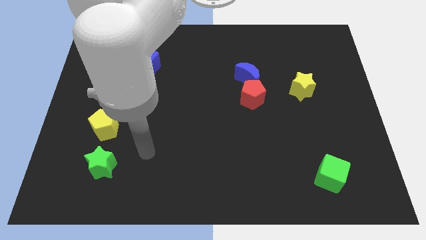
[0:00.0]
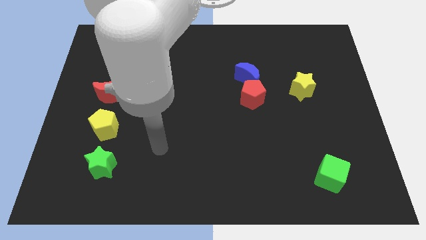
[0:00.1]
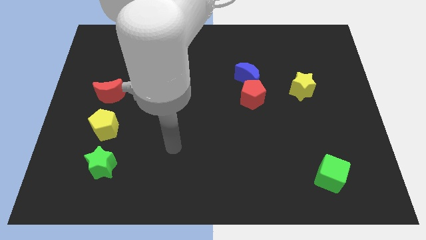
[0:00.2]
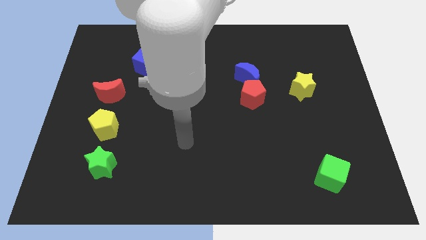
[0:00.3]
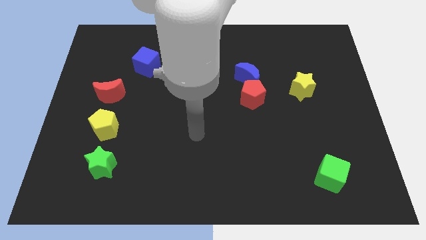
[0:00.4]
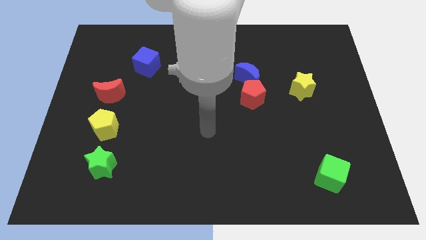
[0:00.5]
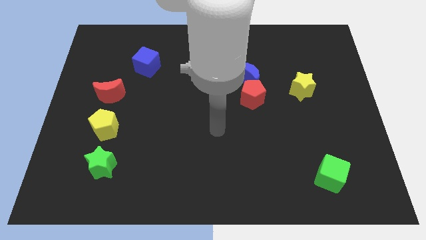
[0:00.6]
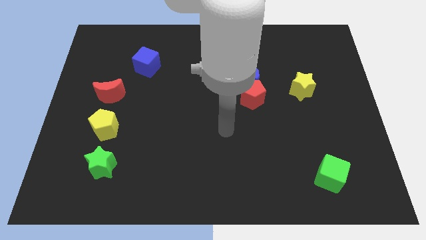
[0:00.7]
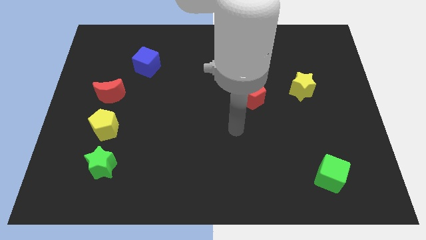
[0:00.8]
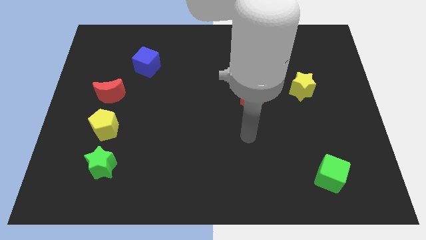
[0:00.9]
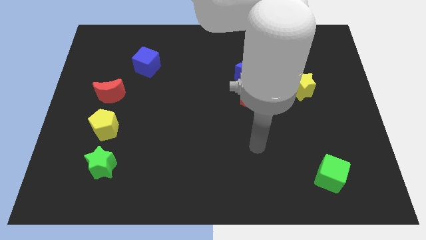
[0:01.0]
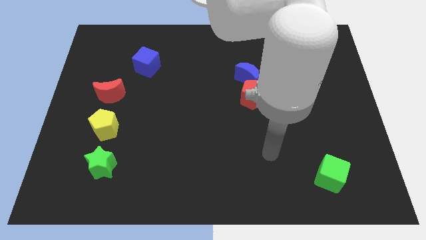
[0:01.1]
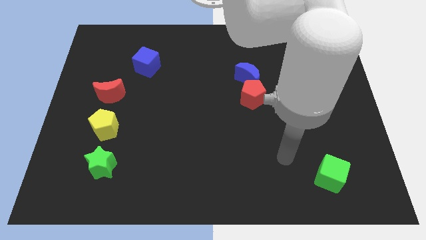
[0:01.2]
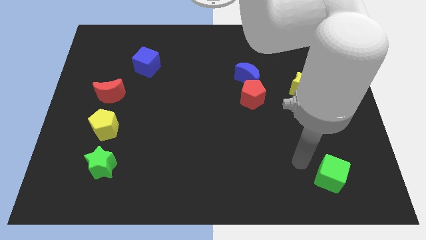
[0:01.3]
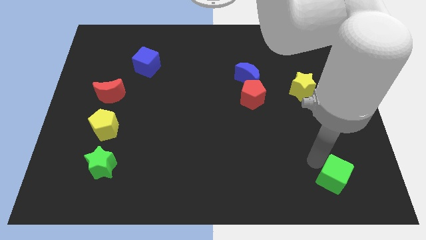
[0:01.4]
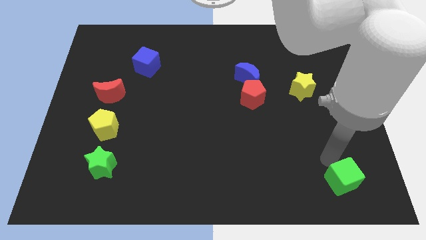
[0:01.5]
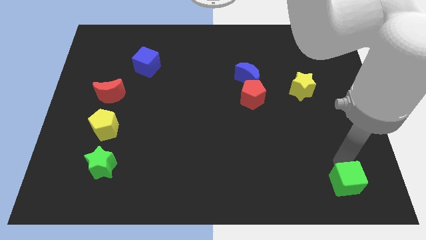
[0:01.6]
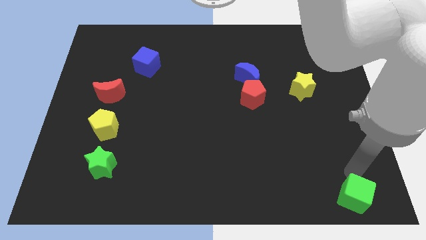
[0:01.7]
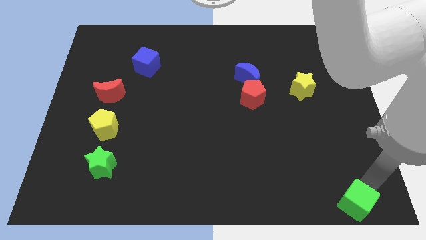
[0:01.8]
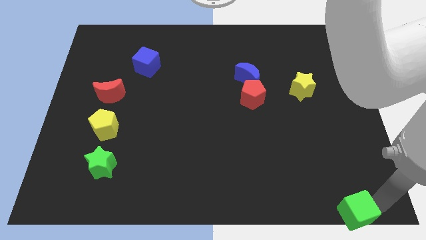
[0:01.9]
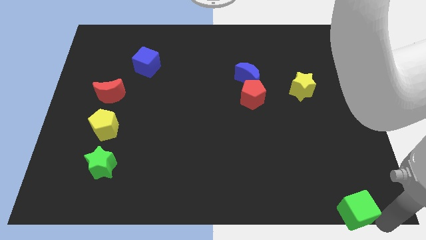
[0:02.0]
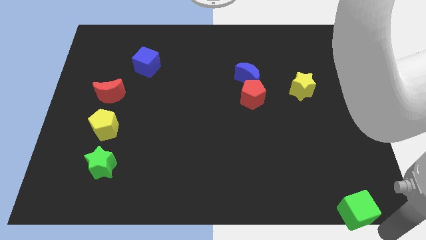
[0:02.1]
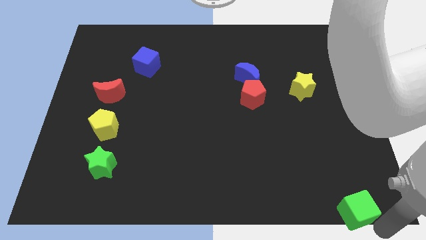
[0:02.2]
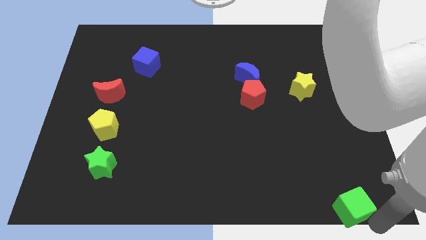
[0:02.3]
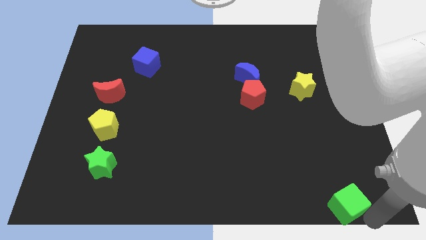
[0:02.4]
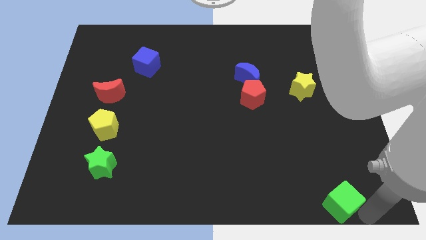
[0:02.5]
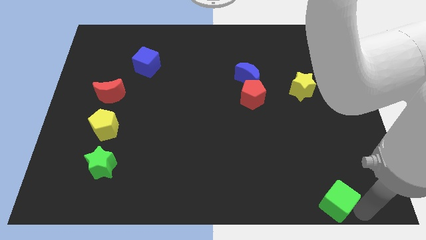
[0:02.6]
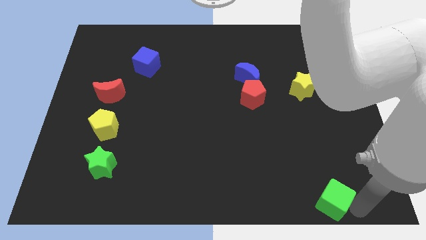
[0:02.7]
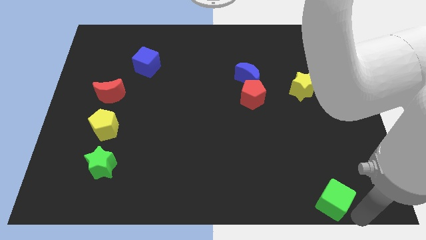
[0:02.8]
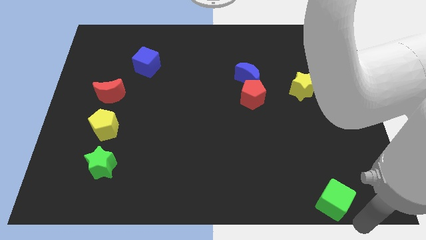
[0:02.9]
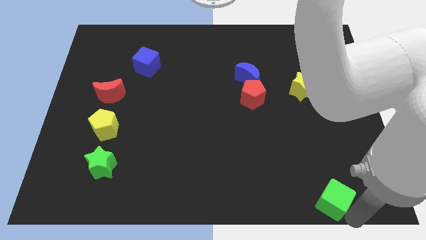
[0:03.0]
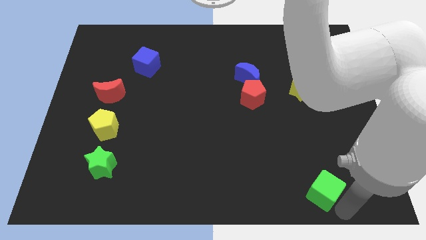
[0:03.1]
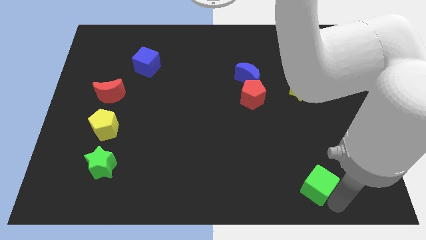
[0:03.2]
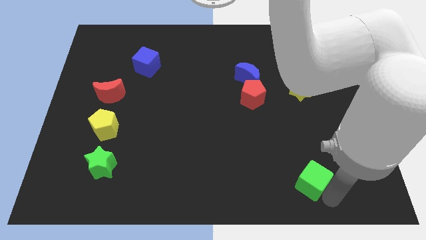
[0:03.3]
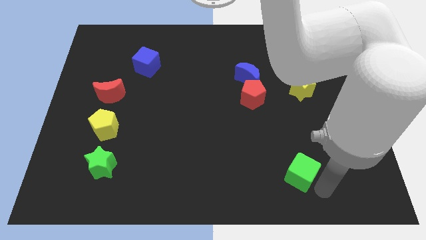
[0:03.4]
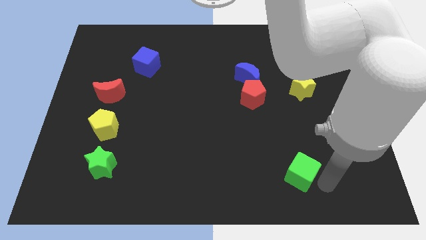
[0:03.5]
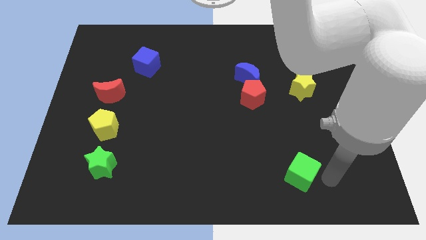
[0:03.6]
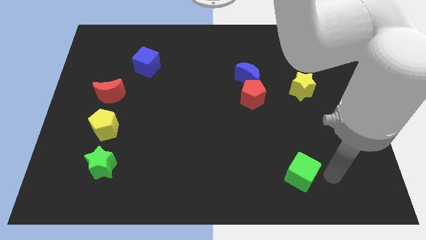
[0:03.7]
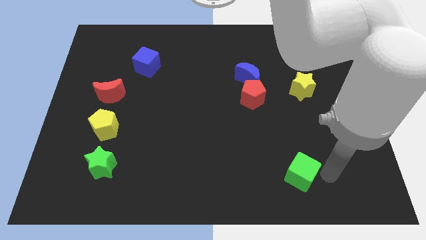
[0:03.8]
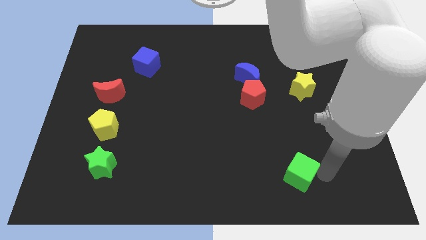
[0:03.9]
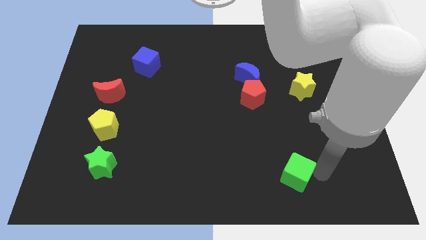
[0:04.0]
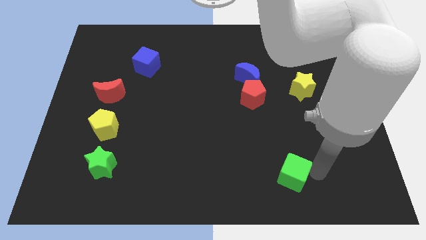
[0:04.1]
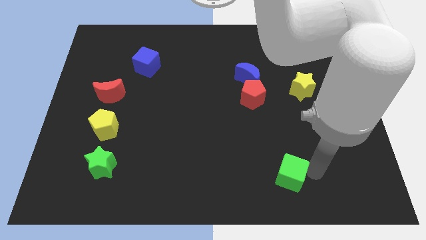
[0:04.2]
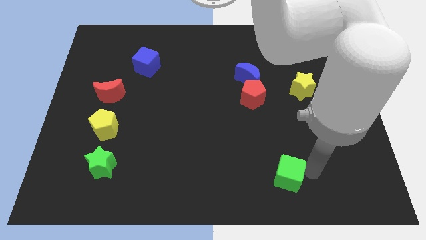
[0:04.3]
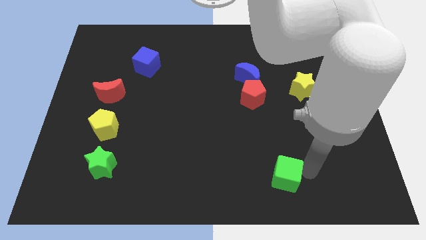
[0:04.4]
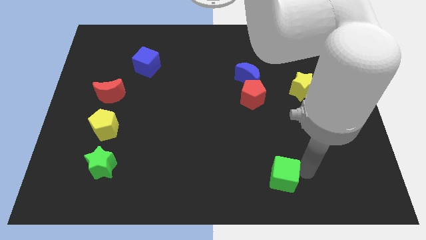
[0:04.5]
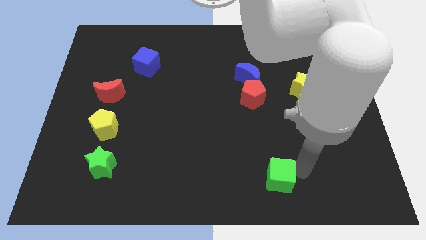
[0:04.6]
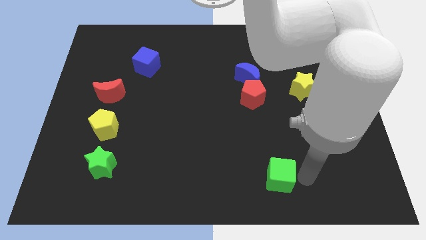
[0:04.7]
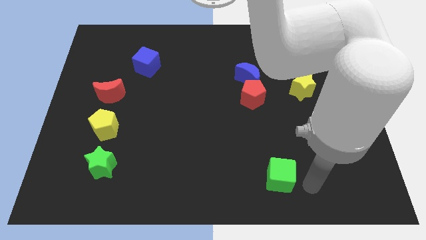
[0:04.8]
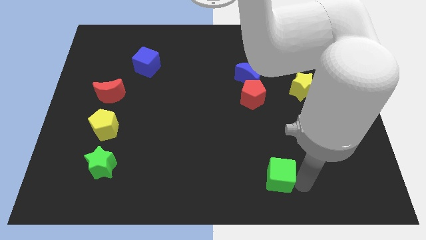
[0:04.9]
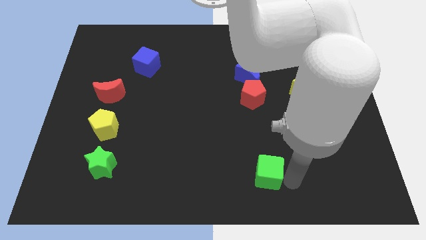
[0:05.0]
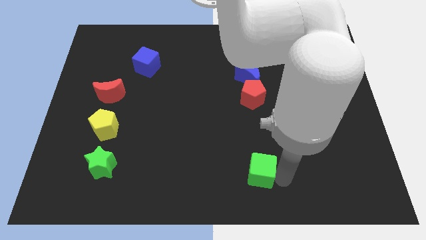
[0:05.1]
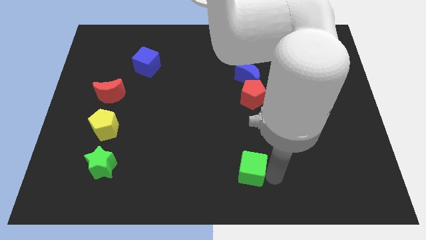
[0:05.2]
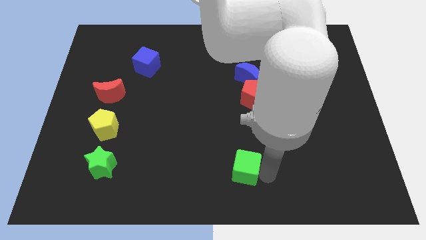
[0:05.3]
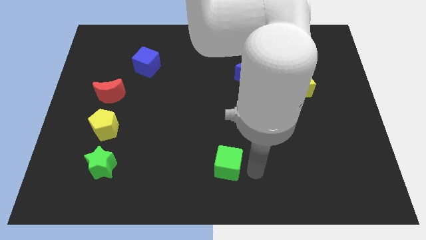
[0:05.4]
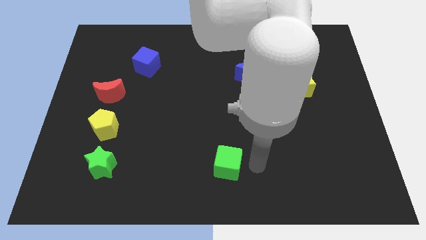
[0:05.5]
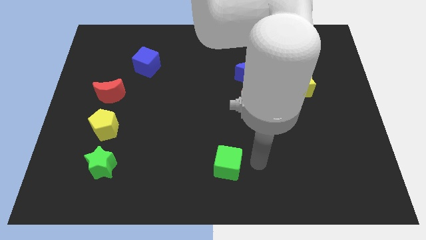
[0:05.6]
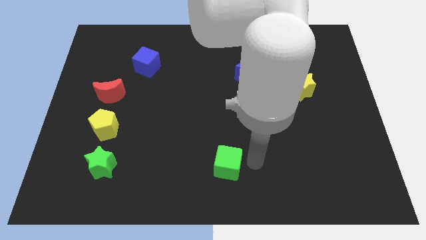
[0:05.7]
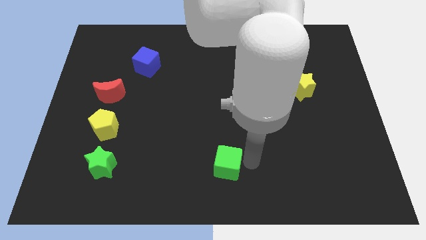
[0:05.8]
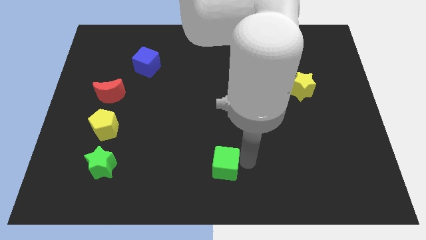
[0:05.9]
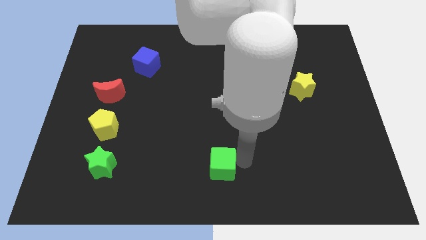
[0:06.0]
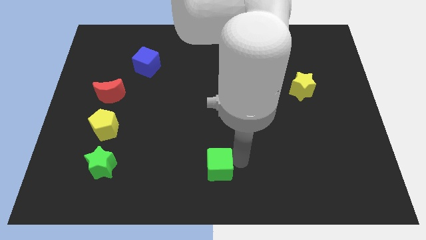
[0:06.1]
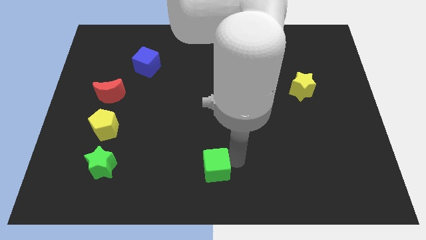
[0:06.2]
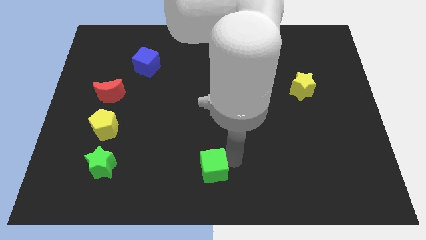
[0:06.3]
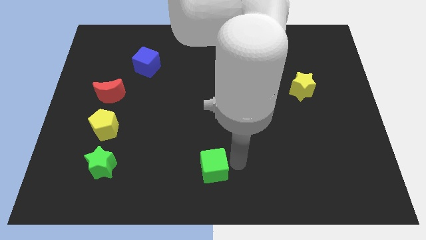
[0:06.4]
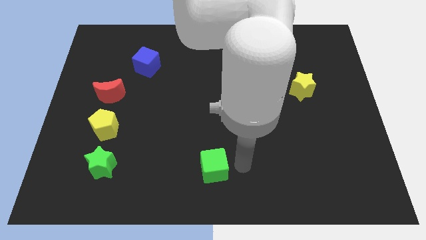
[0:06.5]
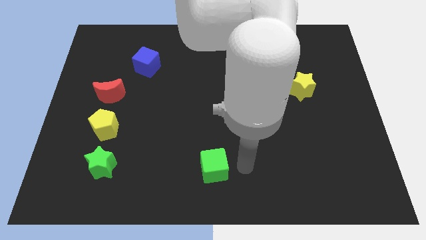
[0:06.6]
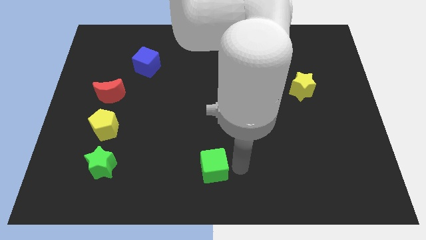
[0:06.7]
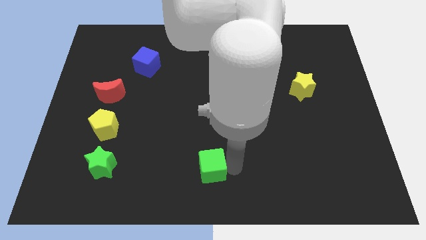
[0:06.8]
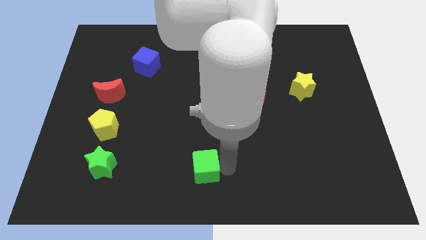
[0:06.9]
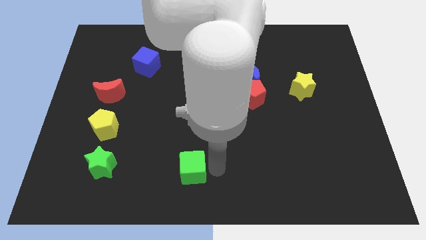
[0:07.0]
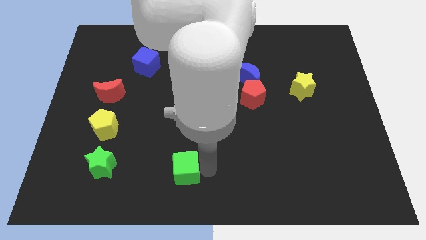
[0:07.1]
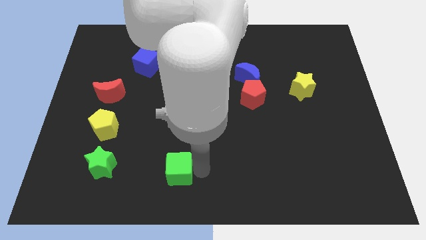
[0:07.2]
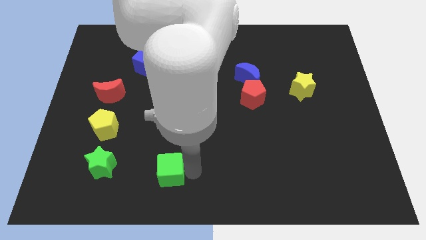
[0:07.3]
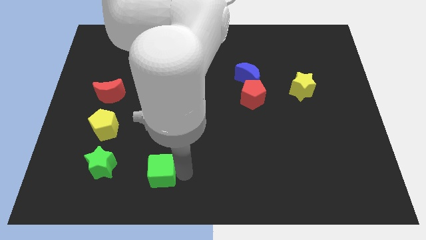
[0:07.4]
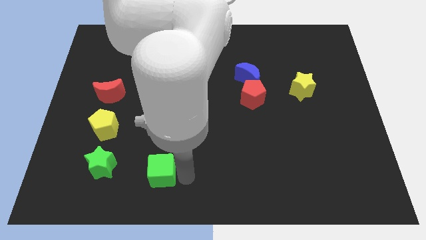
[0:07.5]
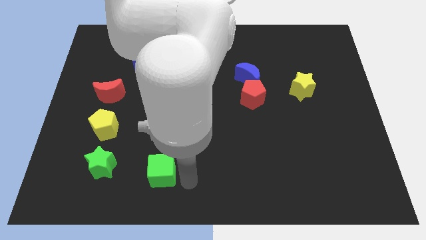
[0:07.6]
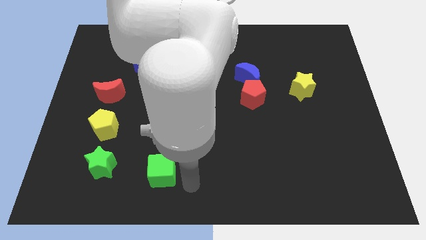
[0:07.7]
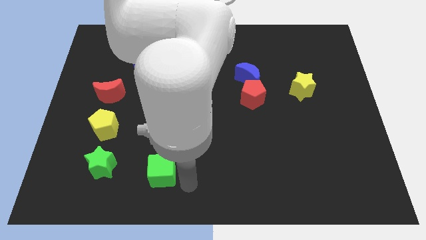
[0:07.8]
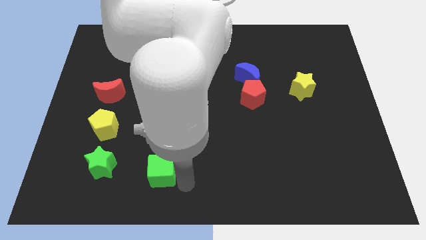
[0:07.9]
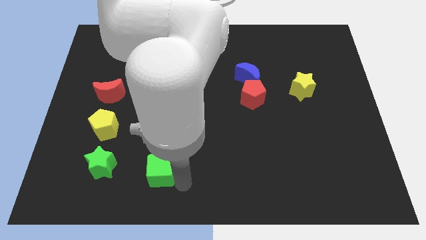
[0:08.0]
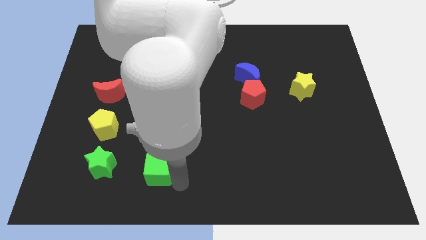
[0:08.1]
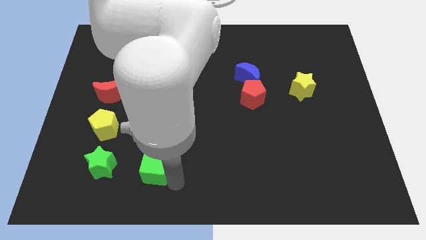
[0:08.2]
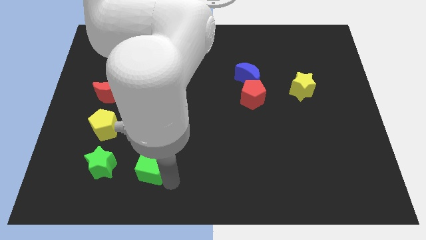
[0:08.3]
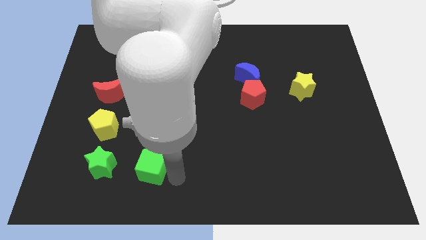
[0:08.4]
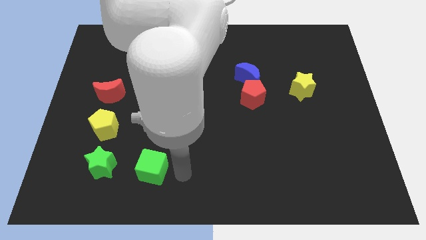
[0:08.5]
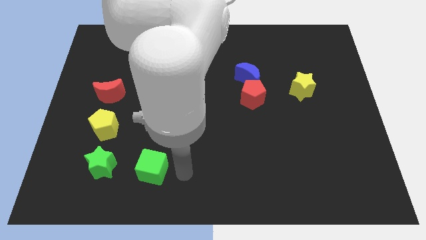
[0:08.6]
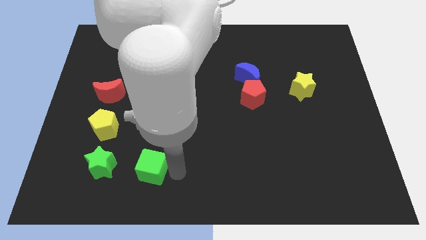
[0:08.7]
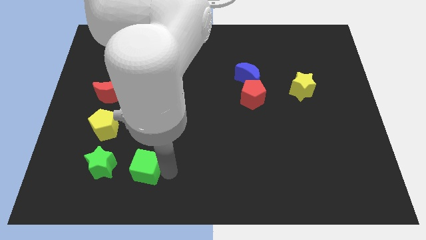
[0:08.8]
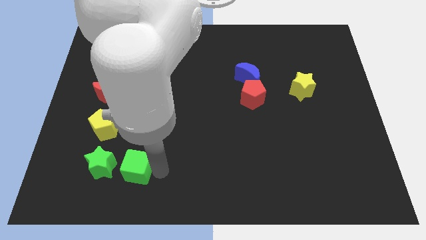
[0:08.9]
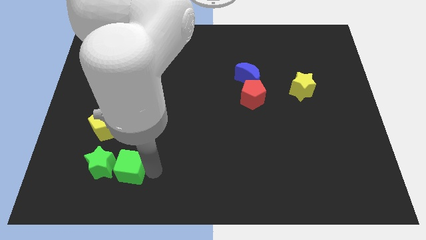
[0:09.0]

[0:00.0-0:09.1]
push the green cube next to the green star
